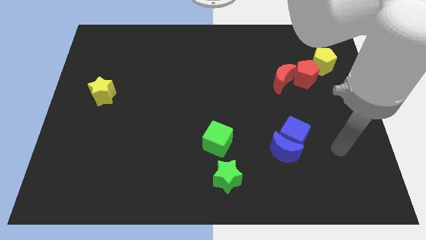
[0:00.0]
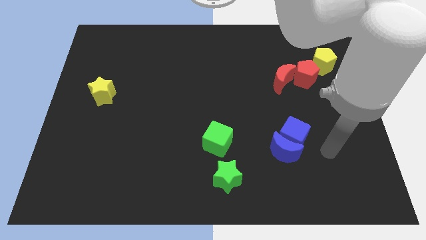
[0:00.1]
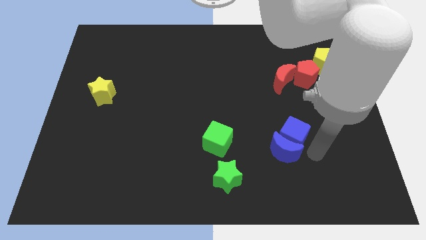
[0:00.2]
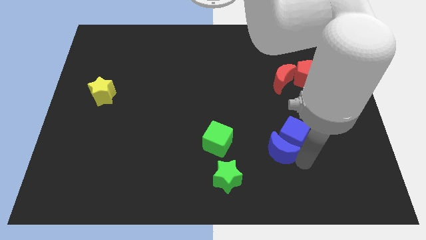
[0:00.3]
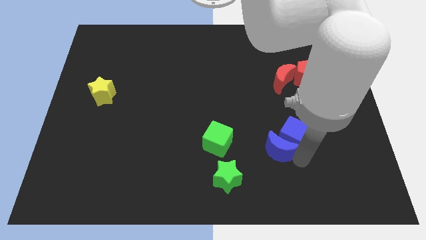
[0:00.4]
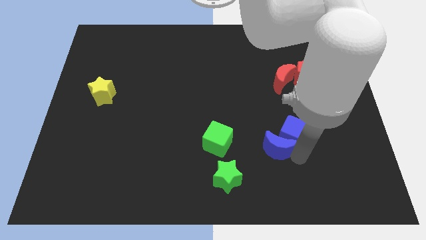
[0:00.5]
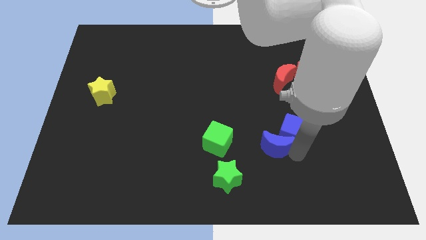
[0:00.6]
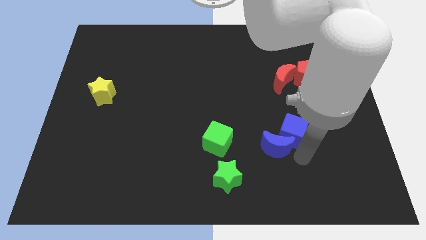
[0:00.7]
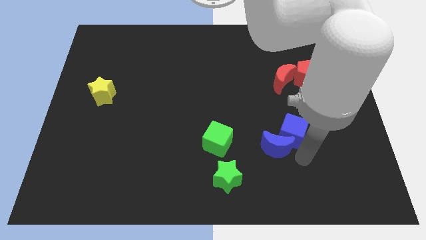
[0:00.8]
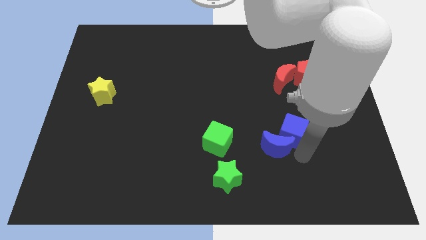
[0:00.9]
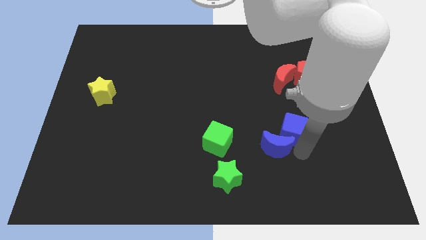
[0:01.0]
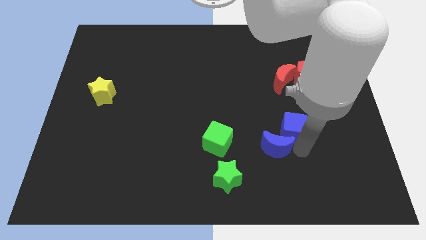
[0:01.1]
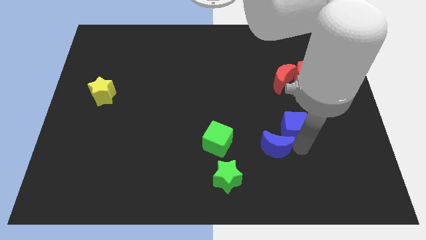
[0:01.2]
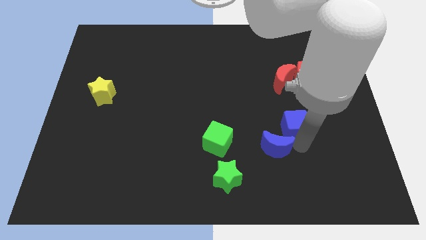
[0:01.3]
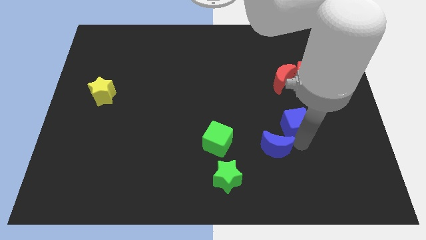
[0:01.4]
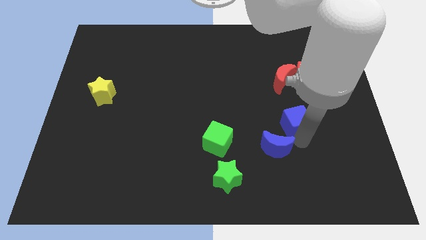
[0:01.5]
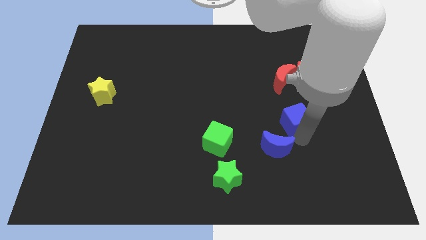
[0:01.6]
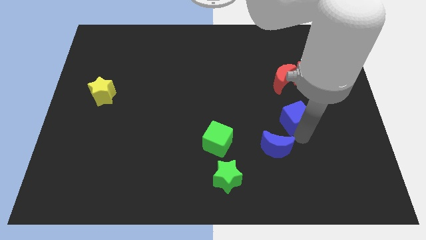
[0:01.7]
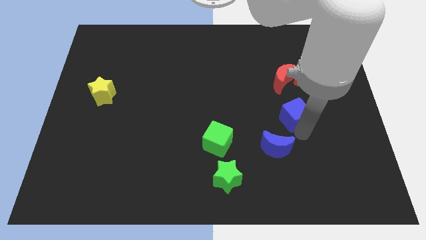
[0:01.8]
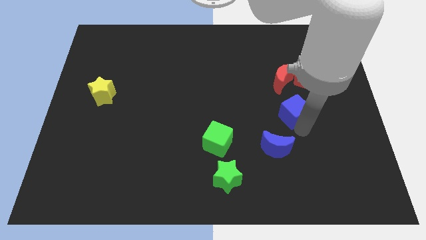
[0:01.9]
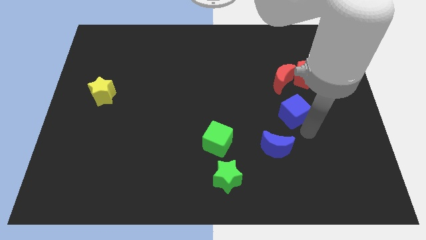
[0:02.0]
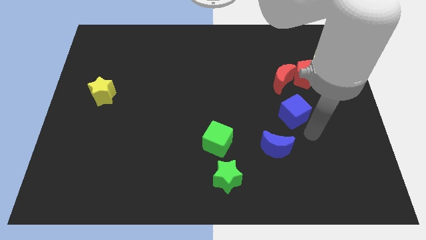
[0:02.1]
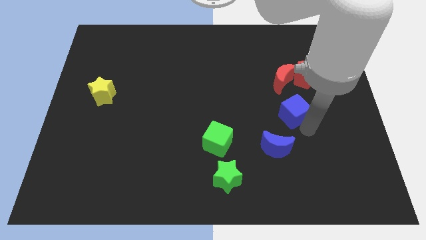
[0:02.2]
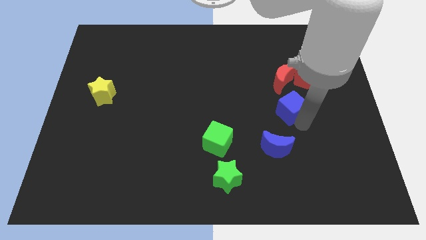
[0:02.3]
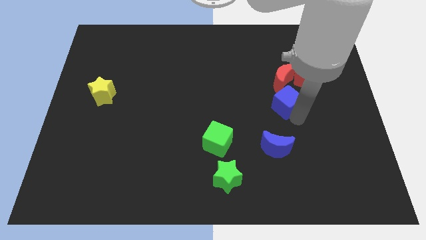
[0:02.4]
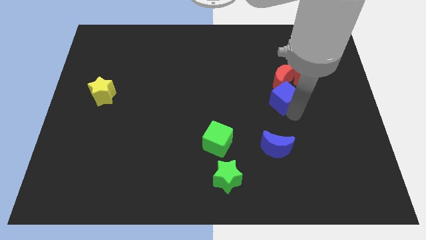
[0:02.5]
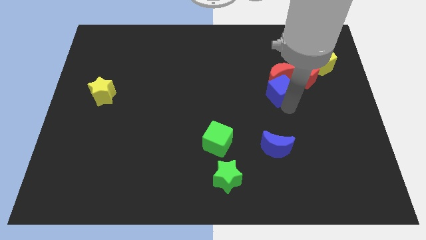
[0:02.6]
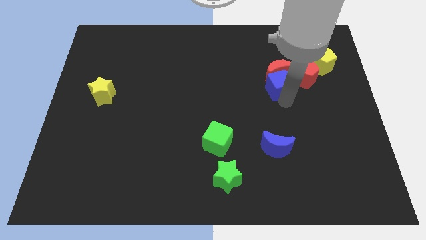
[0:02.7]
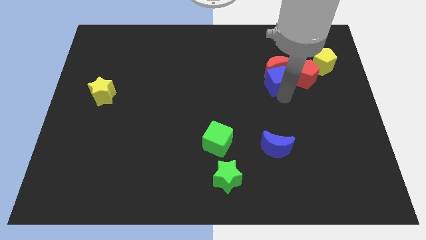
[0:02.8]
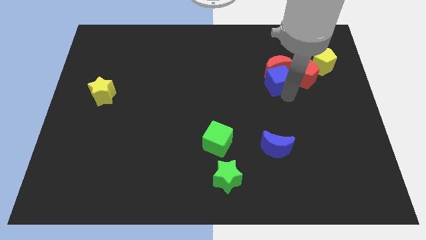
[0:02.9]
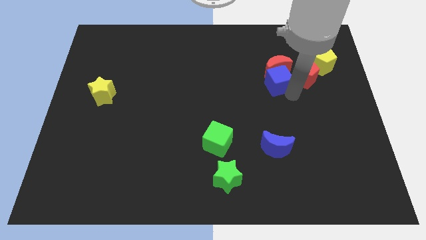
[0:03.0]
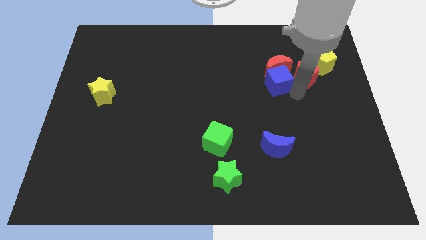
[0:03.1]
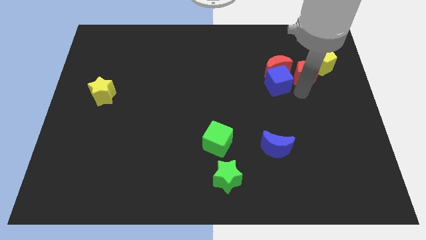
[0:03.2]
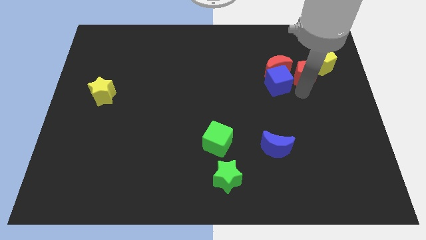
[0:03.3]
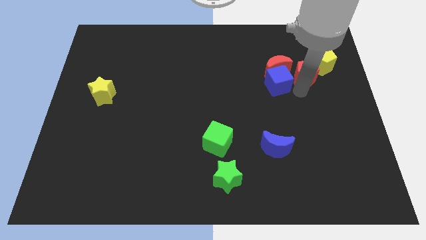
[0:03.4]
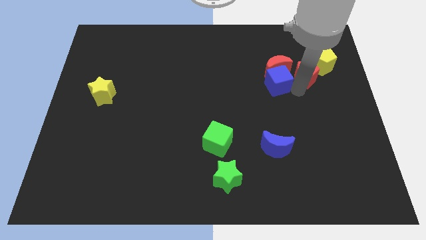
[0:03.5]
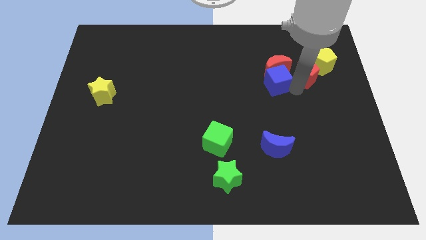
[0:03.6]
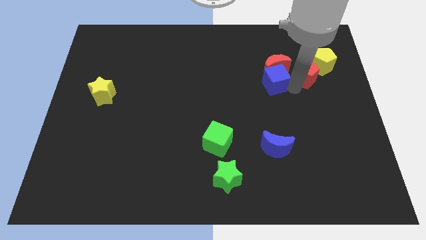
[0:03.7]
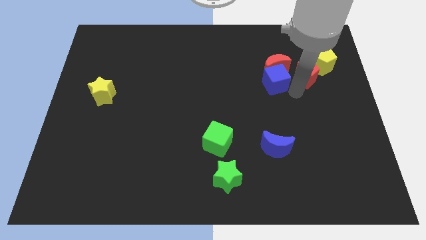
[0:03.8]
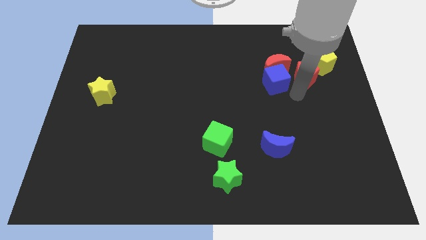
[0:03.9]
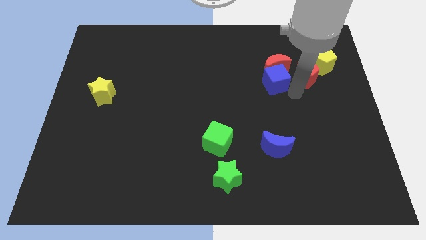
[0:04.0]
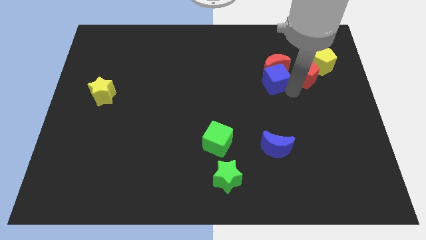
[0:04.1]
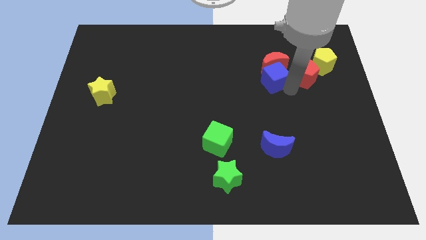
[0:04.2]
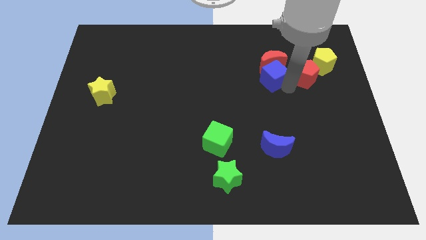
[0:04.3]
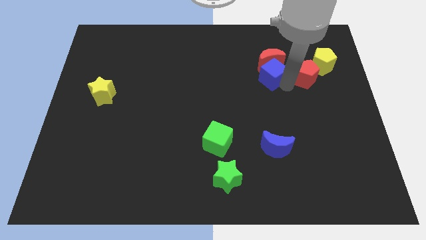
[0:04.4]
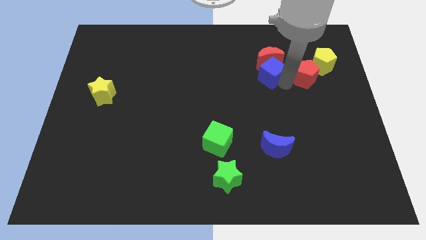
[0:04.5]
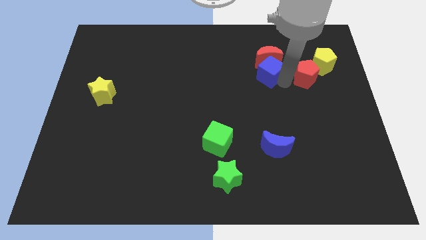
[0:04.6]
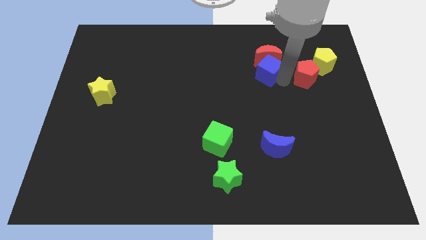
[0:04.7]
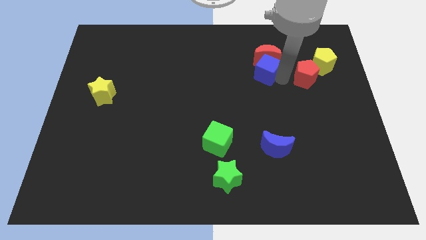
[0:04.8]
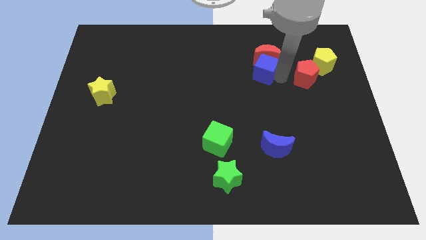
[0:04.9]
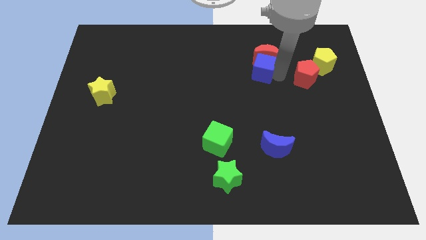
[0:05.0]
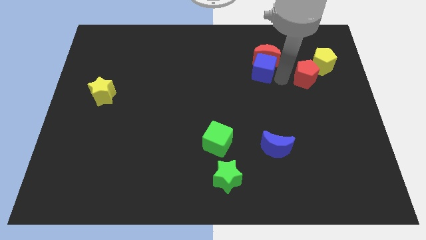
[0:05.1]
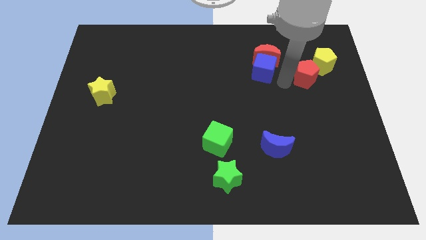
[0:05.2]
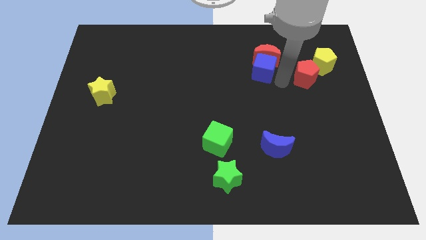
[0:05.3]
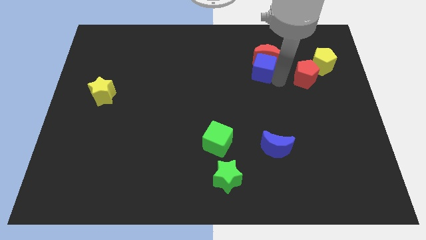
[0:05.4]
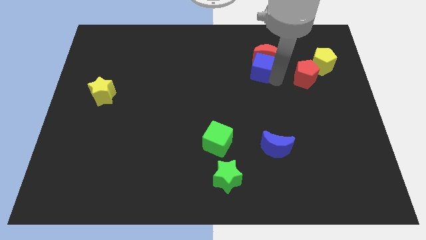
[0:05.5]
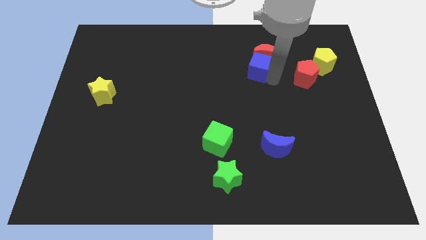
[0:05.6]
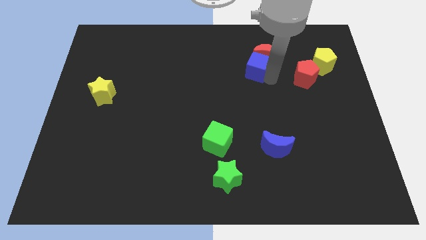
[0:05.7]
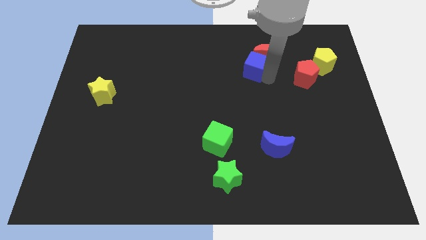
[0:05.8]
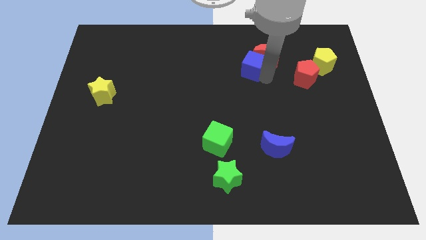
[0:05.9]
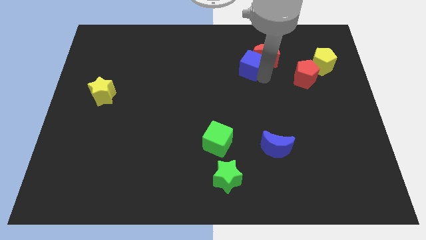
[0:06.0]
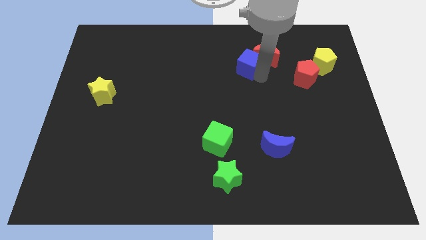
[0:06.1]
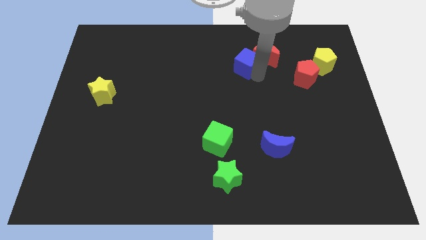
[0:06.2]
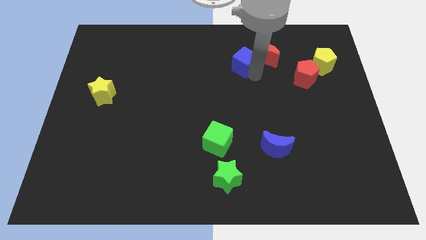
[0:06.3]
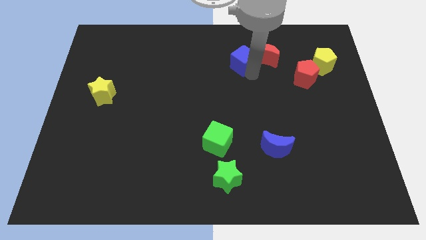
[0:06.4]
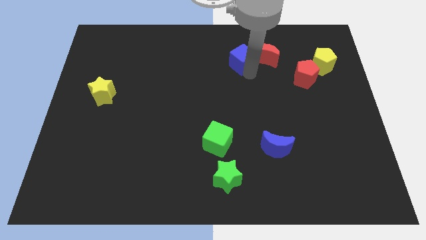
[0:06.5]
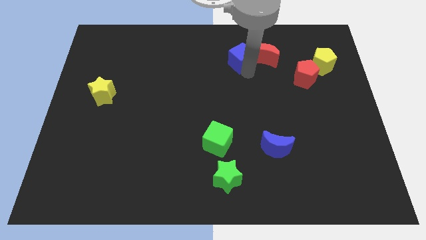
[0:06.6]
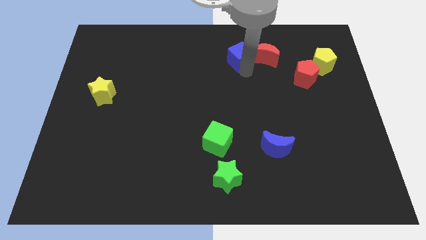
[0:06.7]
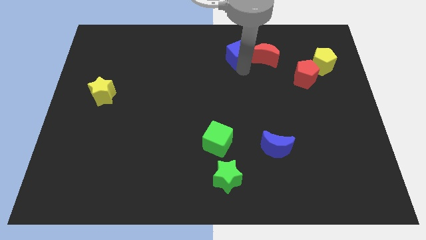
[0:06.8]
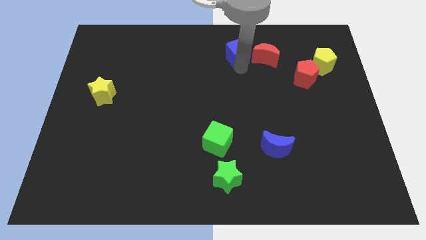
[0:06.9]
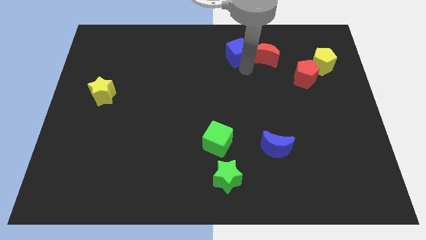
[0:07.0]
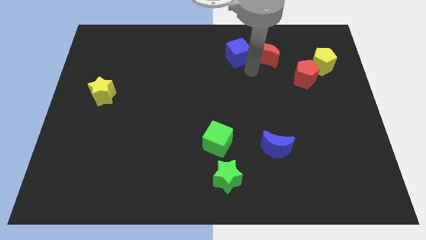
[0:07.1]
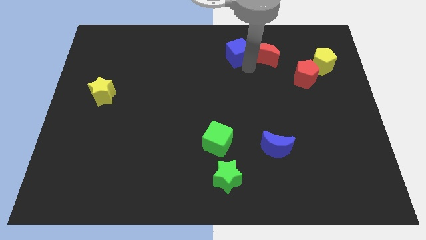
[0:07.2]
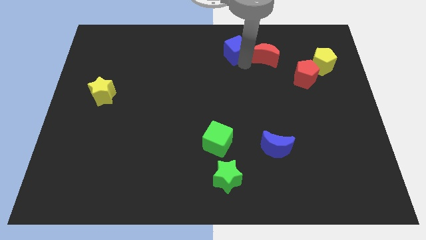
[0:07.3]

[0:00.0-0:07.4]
slide the blue cube to the top
